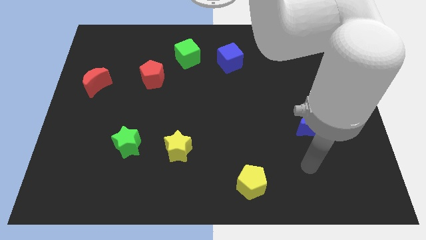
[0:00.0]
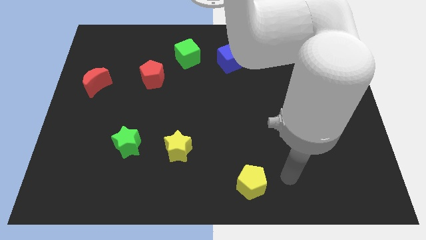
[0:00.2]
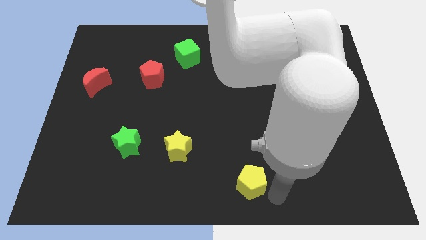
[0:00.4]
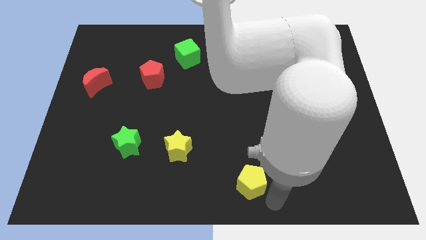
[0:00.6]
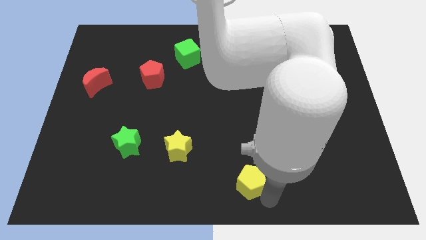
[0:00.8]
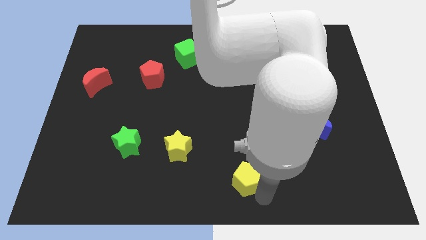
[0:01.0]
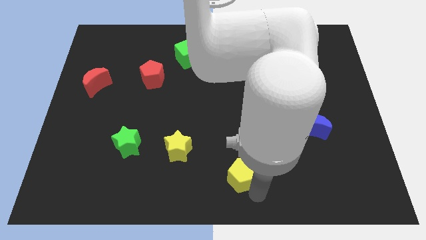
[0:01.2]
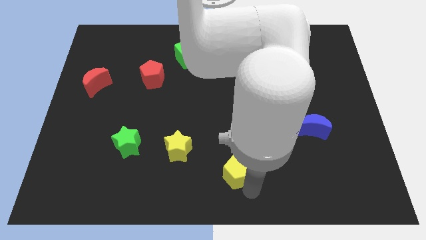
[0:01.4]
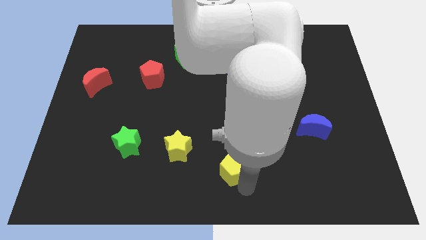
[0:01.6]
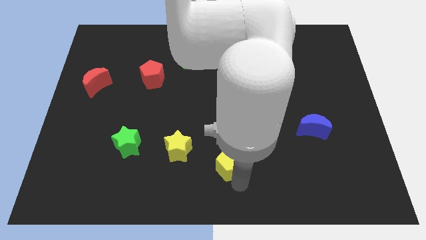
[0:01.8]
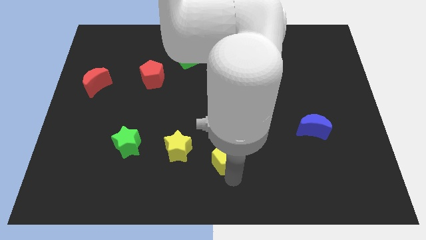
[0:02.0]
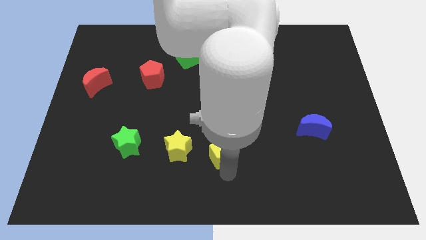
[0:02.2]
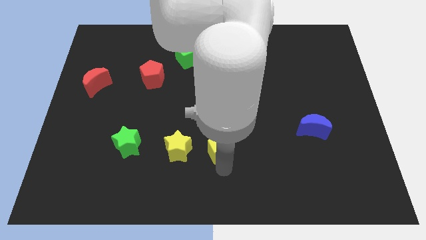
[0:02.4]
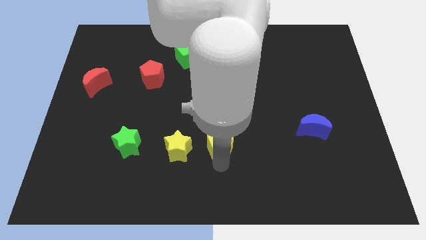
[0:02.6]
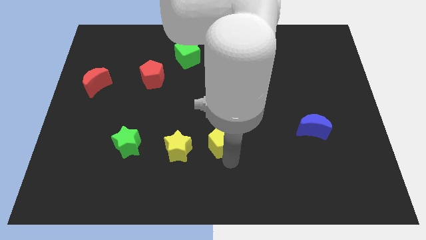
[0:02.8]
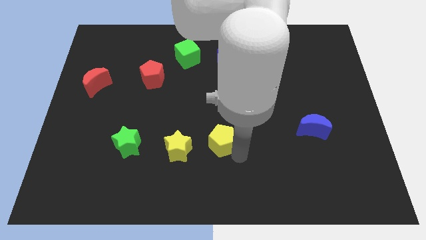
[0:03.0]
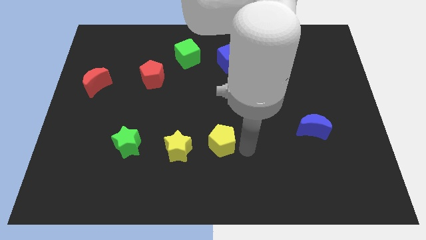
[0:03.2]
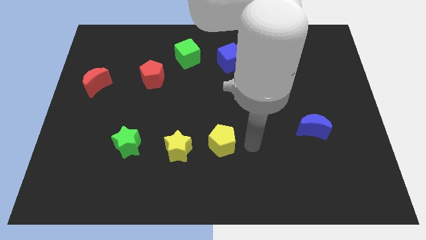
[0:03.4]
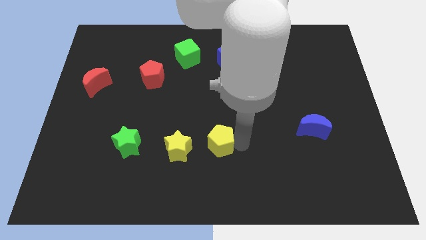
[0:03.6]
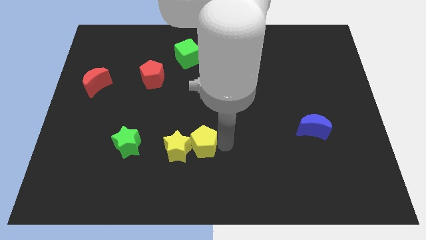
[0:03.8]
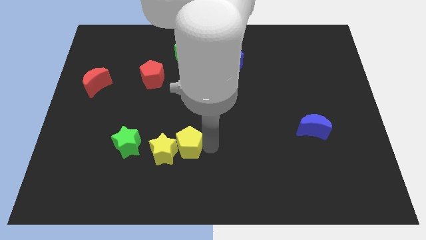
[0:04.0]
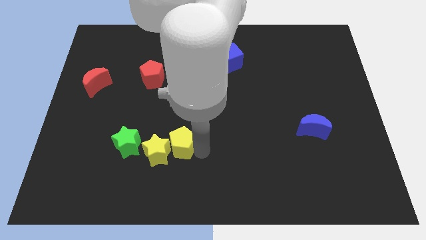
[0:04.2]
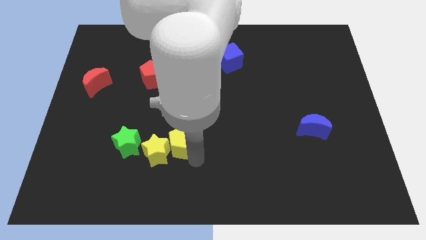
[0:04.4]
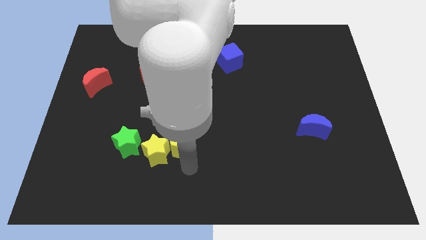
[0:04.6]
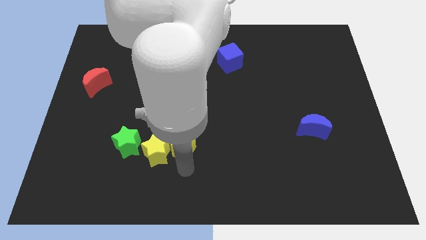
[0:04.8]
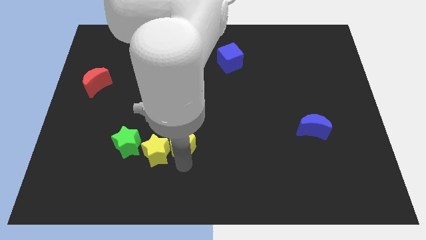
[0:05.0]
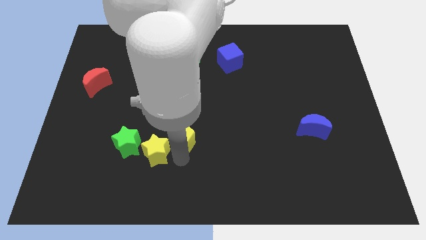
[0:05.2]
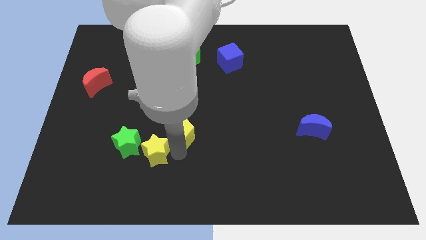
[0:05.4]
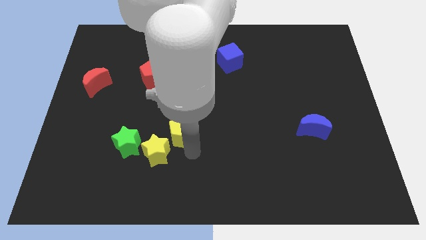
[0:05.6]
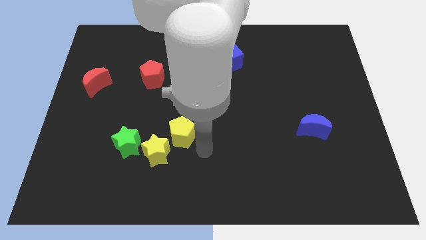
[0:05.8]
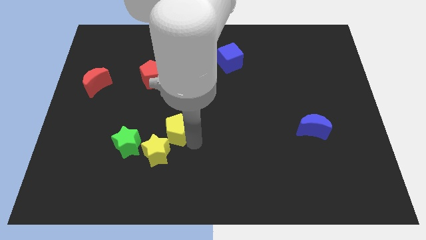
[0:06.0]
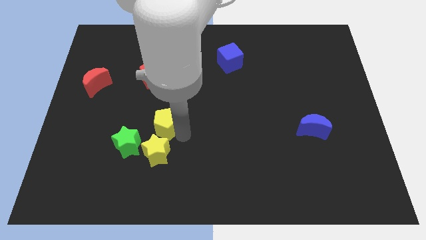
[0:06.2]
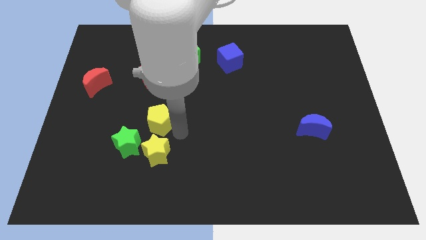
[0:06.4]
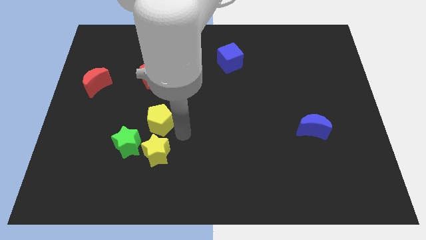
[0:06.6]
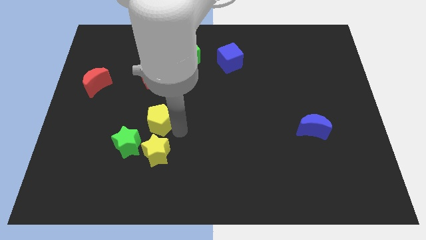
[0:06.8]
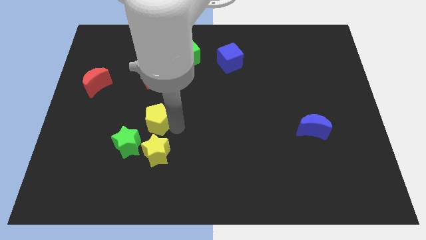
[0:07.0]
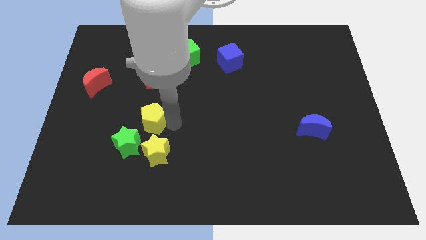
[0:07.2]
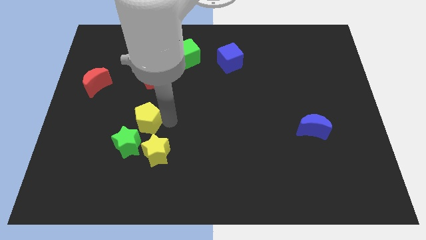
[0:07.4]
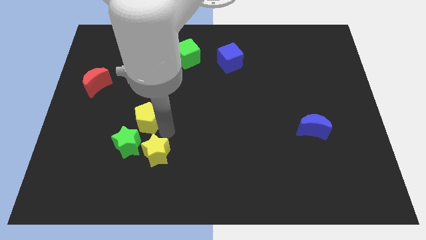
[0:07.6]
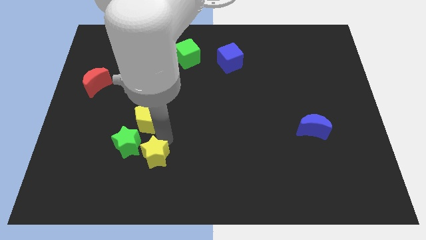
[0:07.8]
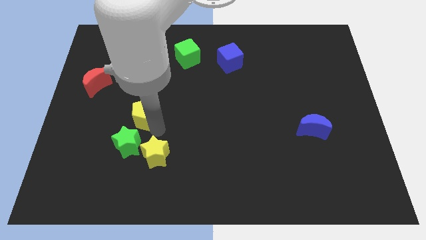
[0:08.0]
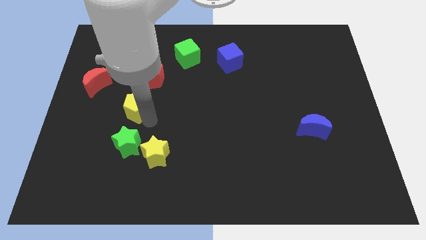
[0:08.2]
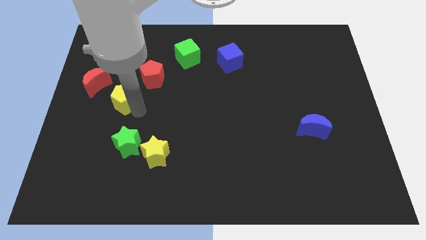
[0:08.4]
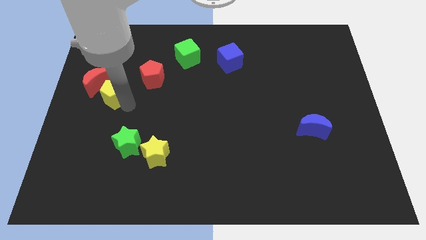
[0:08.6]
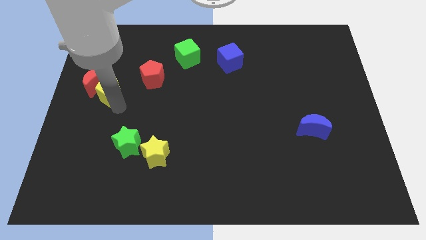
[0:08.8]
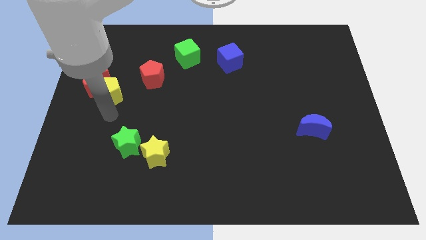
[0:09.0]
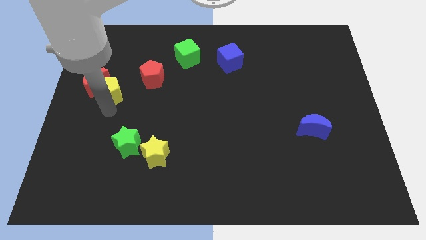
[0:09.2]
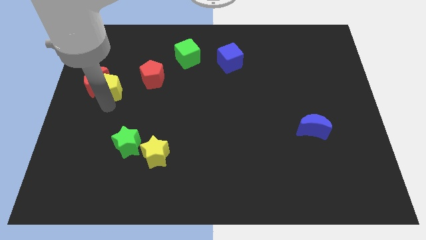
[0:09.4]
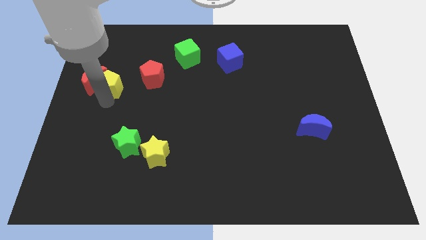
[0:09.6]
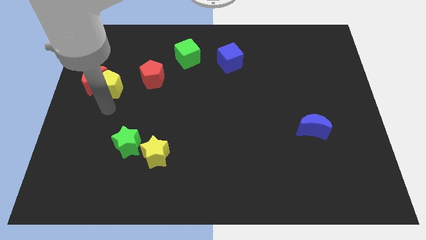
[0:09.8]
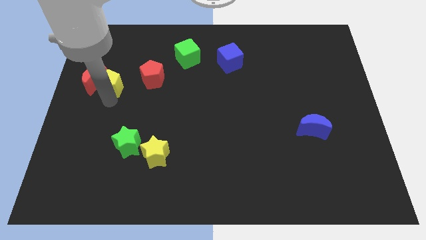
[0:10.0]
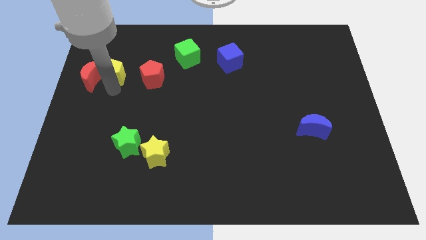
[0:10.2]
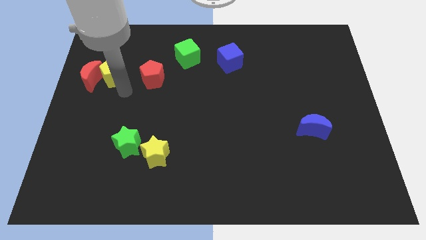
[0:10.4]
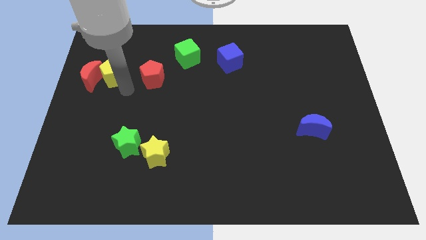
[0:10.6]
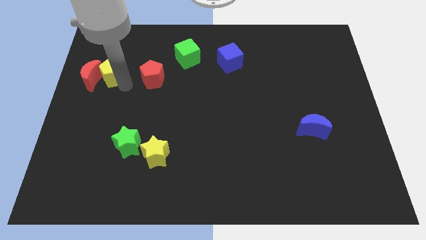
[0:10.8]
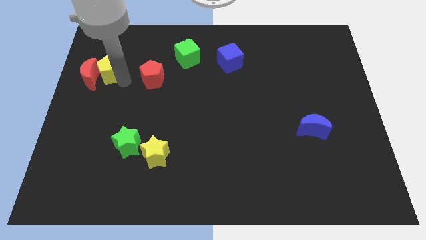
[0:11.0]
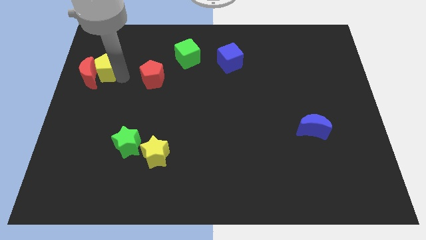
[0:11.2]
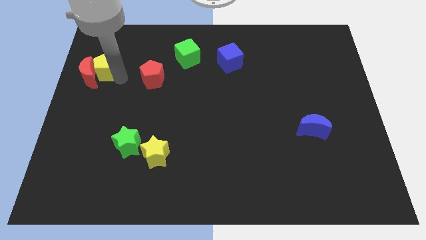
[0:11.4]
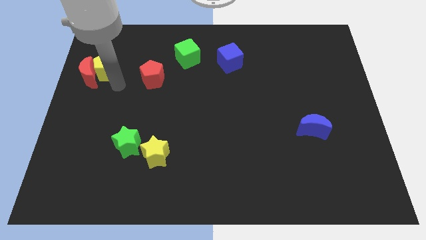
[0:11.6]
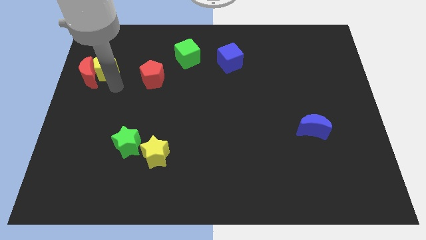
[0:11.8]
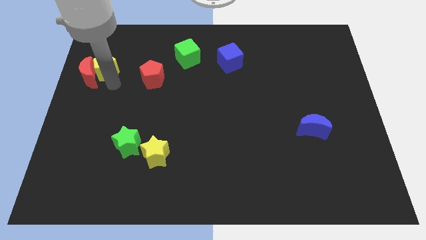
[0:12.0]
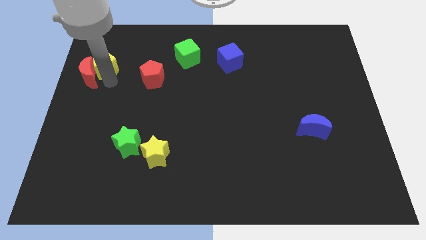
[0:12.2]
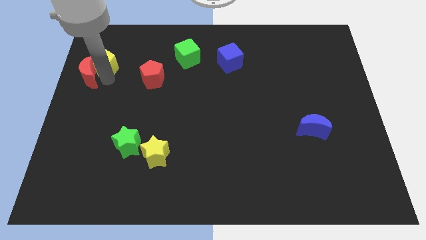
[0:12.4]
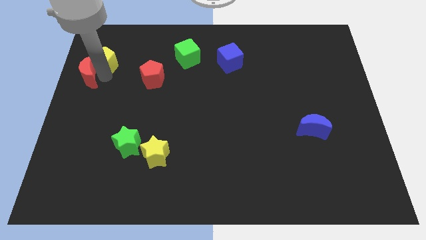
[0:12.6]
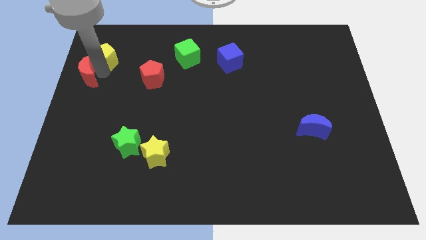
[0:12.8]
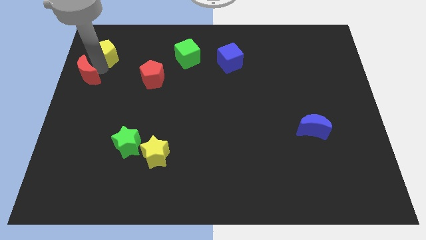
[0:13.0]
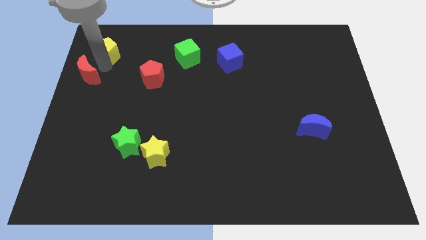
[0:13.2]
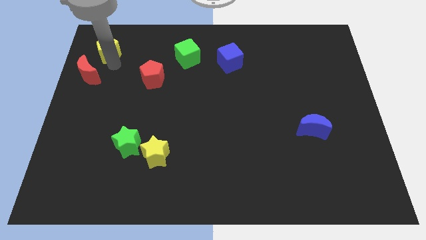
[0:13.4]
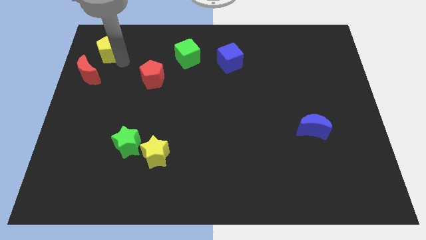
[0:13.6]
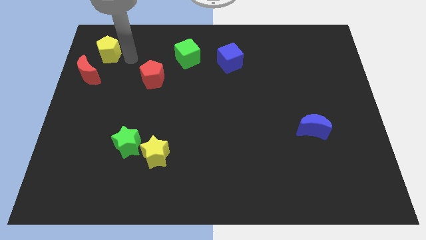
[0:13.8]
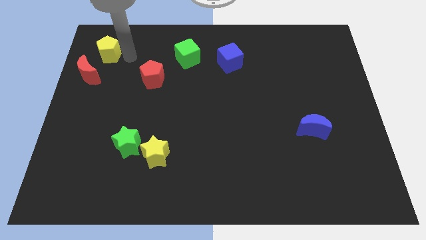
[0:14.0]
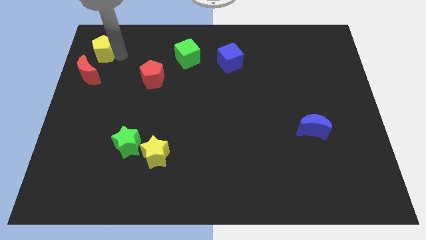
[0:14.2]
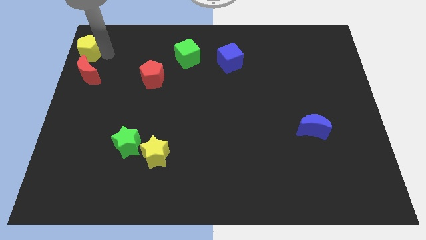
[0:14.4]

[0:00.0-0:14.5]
push the yellow pentagon to the top left of the board
